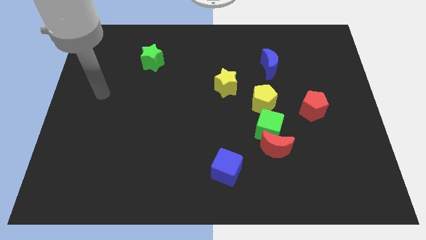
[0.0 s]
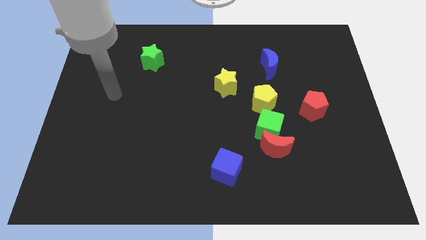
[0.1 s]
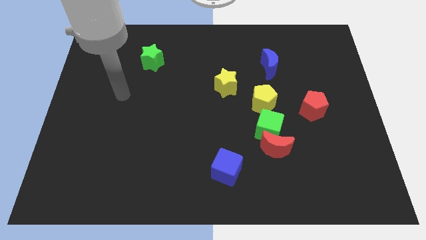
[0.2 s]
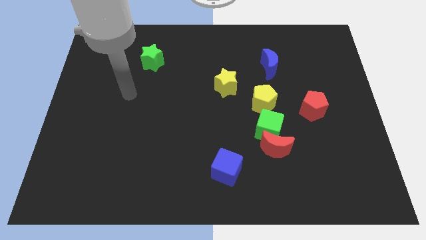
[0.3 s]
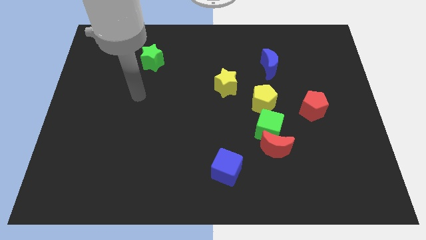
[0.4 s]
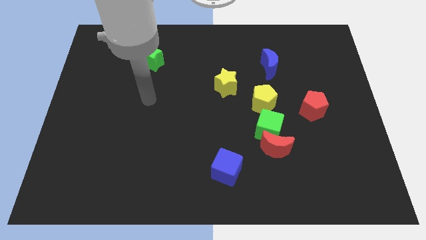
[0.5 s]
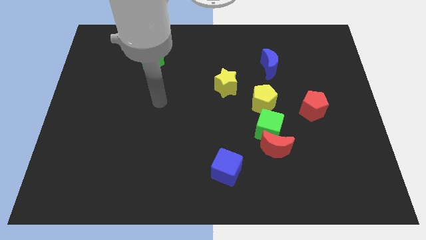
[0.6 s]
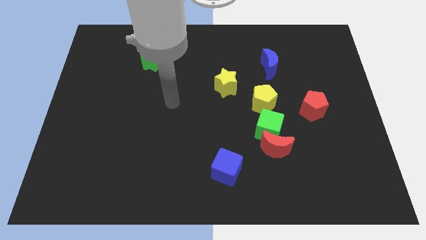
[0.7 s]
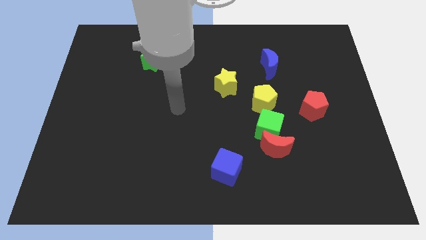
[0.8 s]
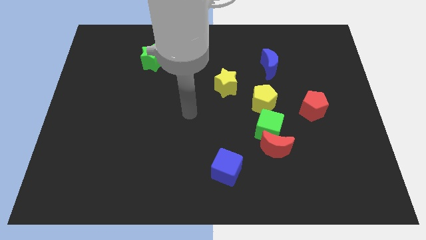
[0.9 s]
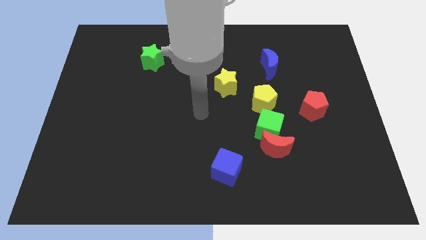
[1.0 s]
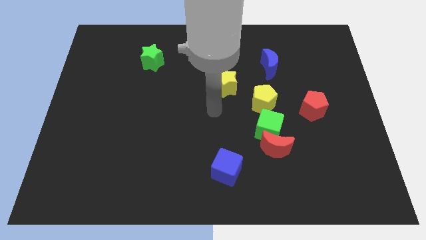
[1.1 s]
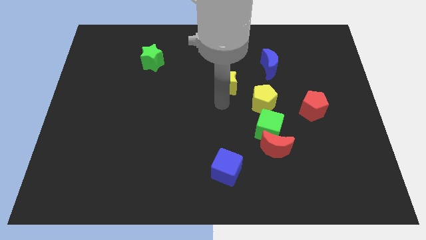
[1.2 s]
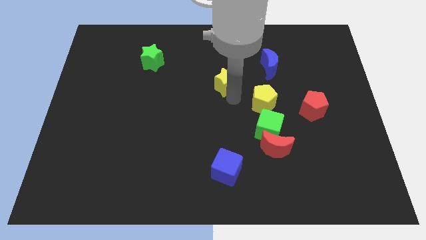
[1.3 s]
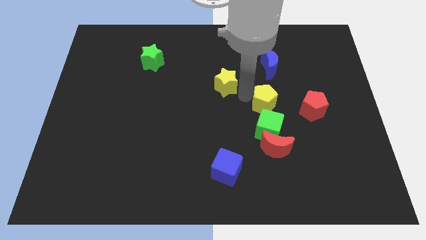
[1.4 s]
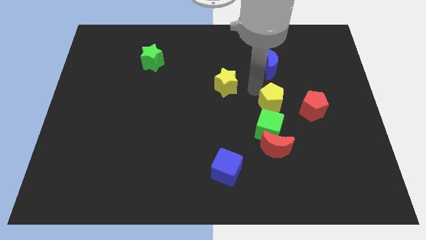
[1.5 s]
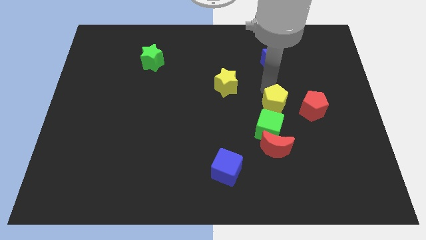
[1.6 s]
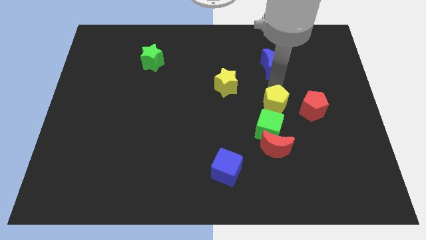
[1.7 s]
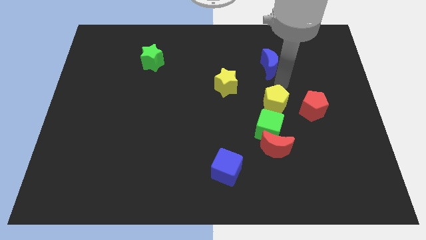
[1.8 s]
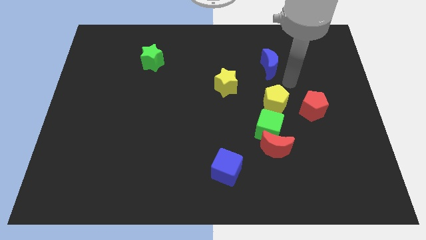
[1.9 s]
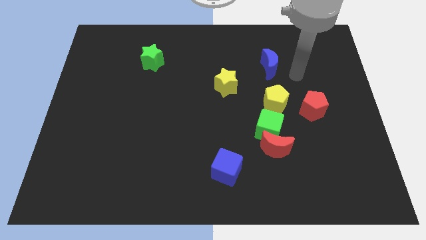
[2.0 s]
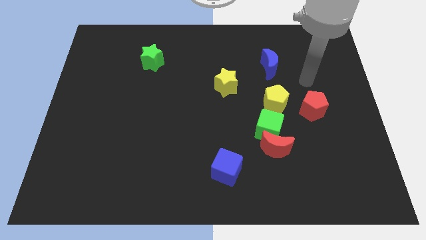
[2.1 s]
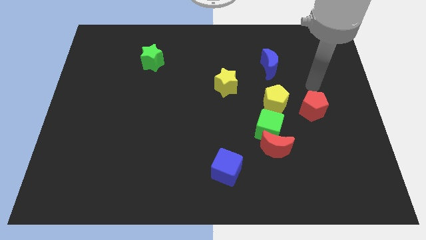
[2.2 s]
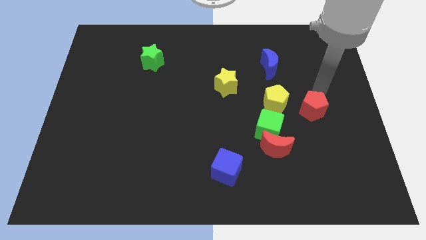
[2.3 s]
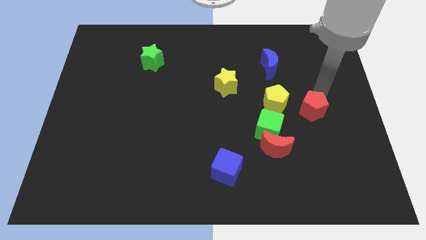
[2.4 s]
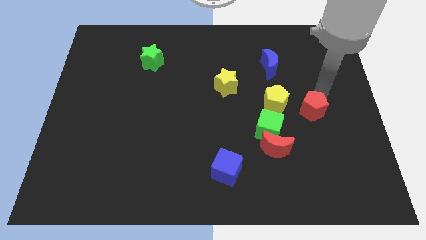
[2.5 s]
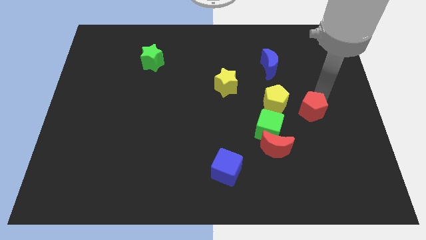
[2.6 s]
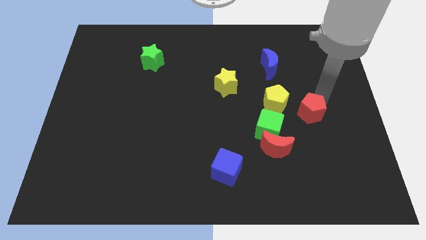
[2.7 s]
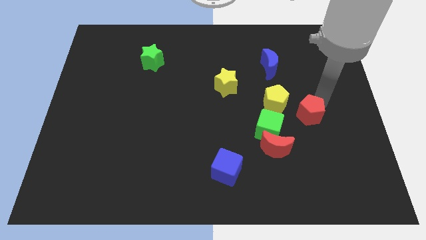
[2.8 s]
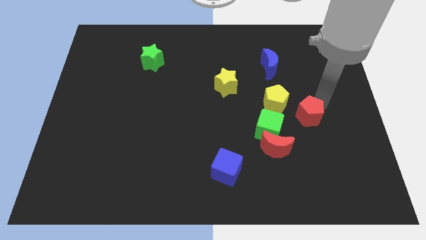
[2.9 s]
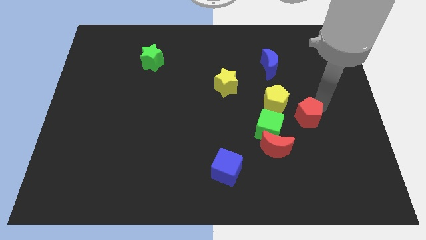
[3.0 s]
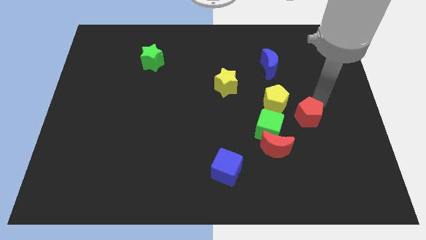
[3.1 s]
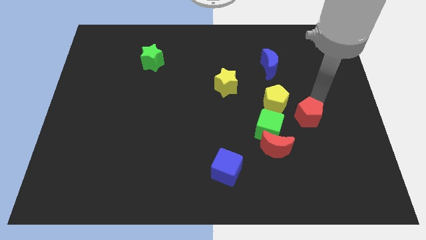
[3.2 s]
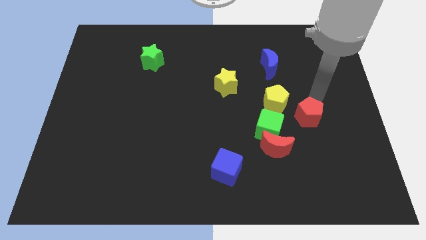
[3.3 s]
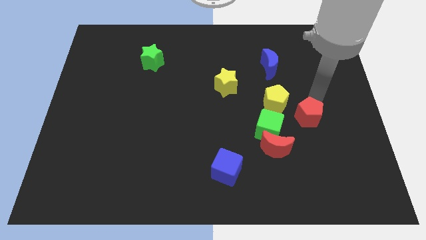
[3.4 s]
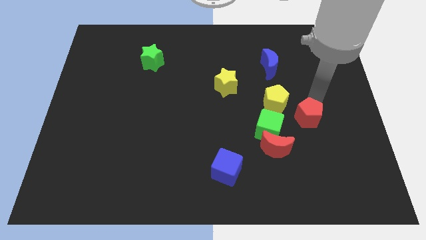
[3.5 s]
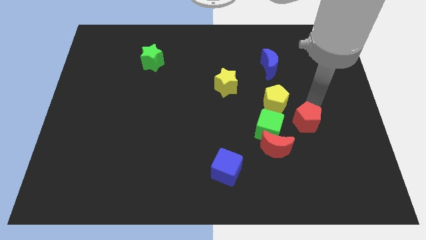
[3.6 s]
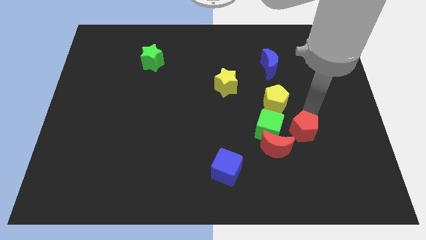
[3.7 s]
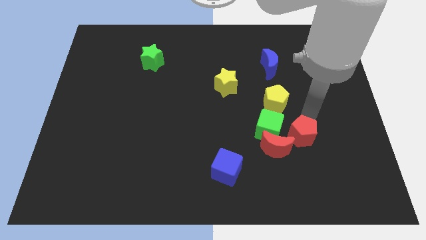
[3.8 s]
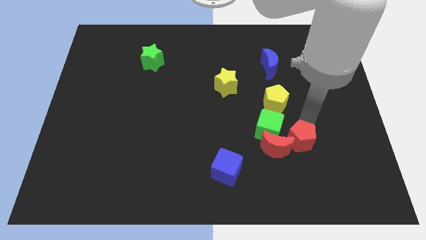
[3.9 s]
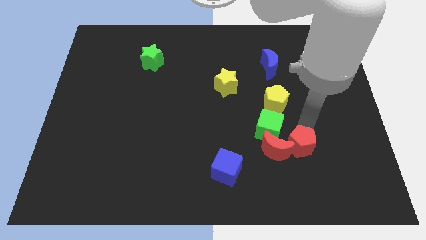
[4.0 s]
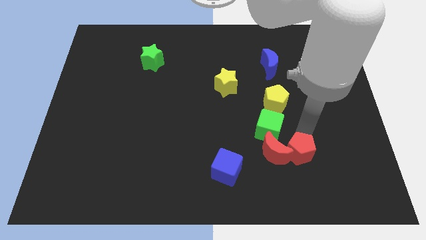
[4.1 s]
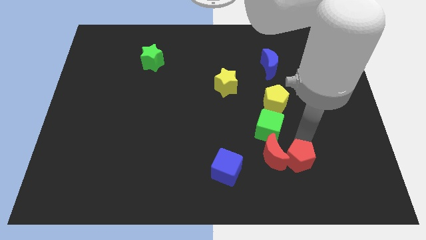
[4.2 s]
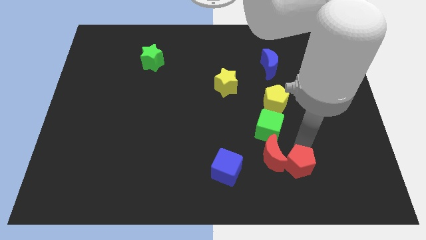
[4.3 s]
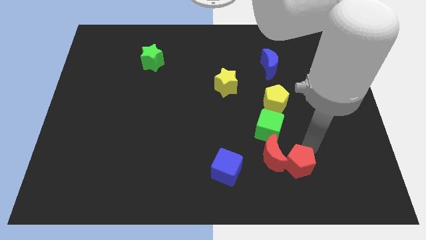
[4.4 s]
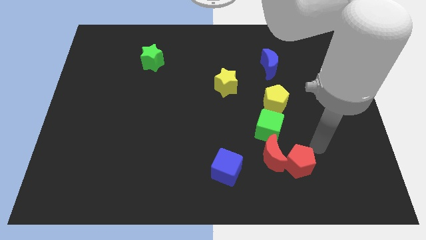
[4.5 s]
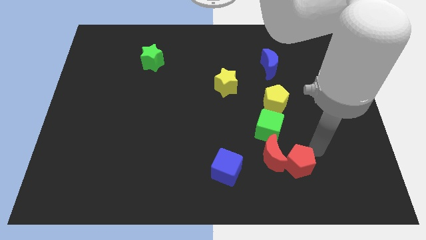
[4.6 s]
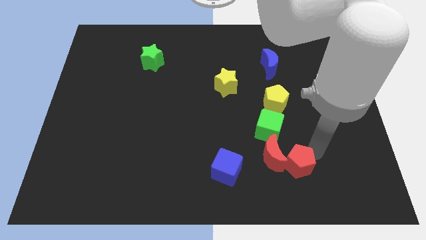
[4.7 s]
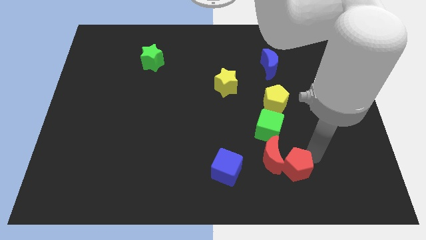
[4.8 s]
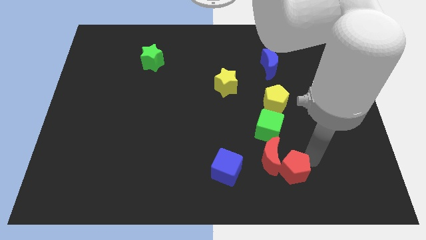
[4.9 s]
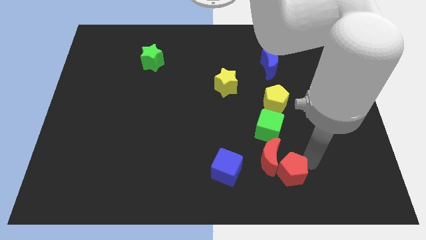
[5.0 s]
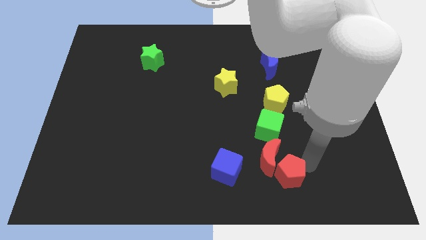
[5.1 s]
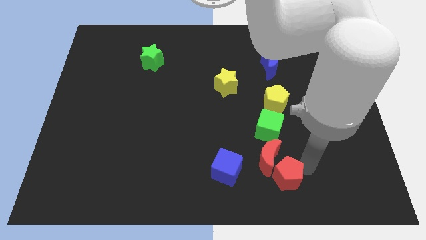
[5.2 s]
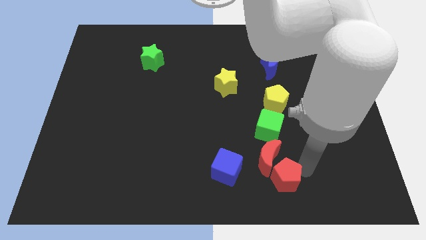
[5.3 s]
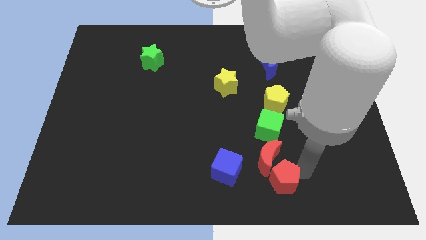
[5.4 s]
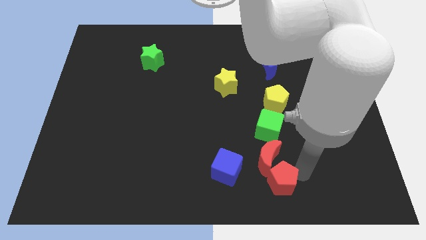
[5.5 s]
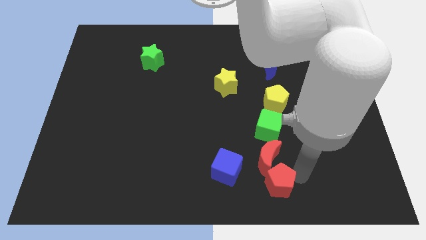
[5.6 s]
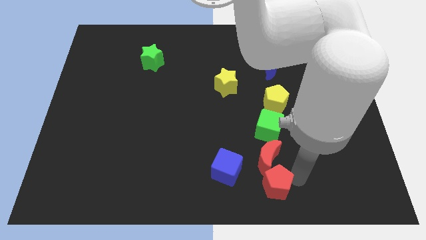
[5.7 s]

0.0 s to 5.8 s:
put the red pentagon to the bottom side
